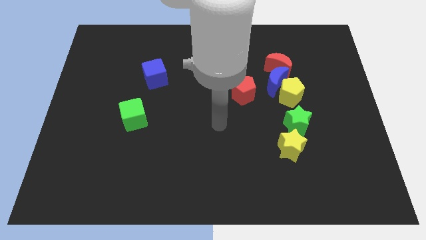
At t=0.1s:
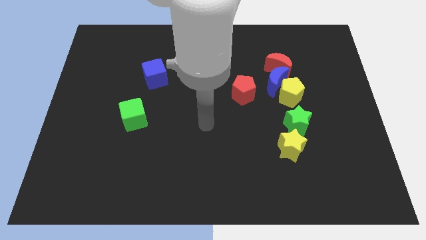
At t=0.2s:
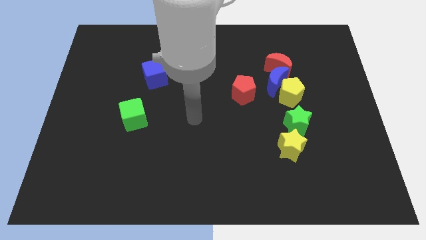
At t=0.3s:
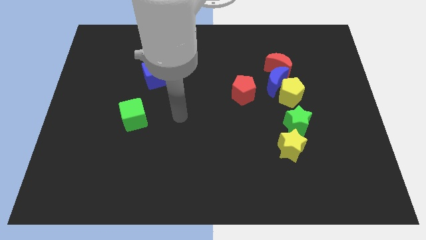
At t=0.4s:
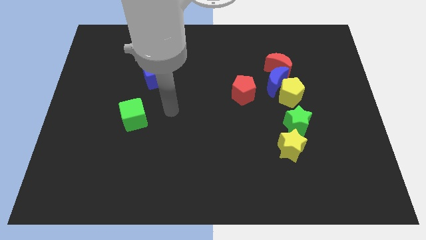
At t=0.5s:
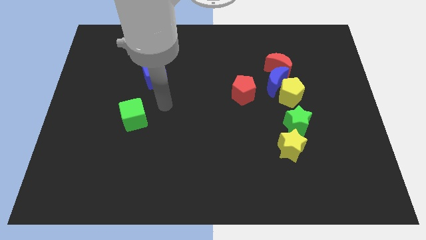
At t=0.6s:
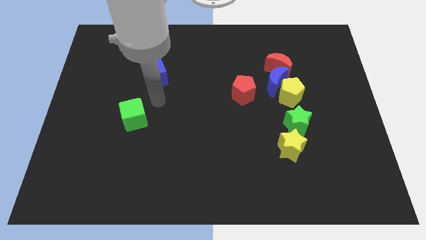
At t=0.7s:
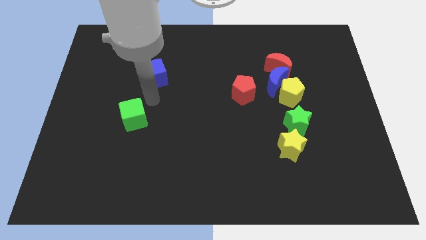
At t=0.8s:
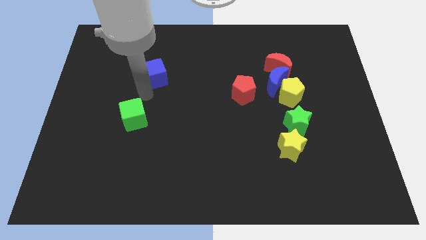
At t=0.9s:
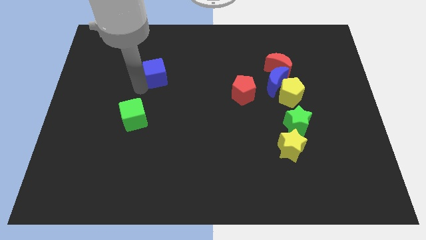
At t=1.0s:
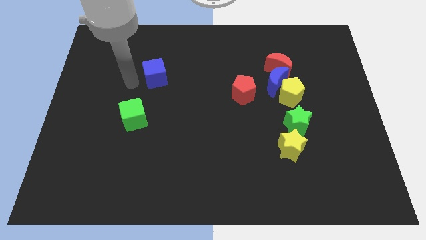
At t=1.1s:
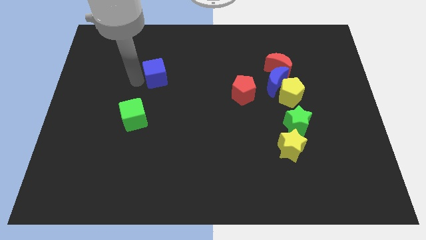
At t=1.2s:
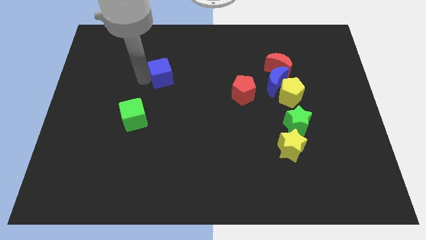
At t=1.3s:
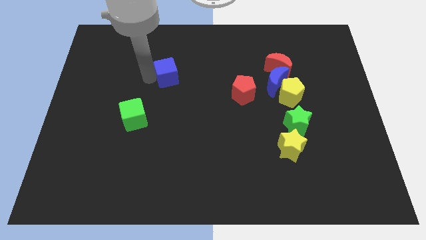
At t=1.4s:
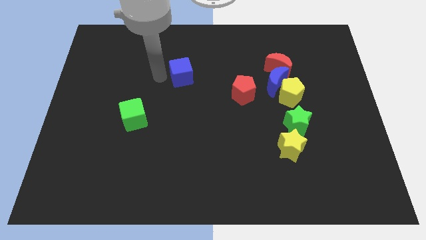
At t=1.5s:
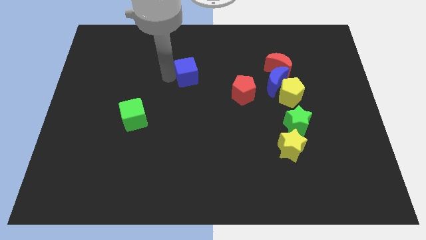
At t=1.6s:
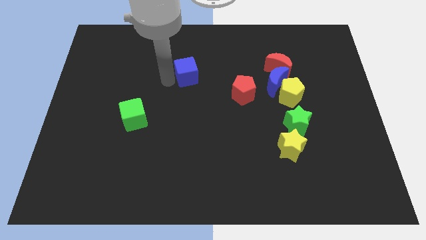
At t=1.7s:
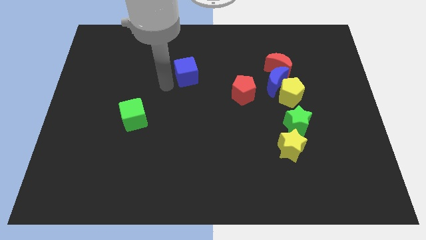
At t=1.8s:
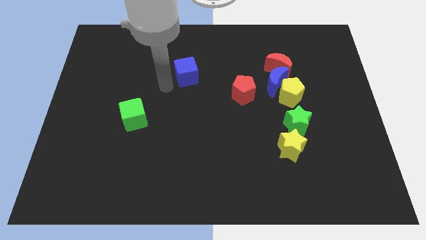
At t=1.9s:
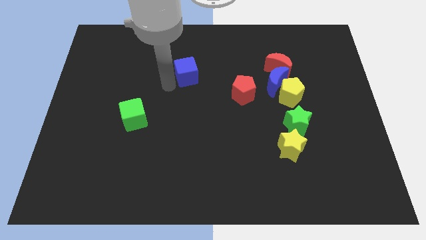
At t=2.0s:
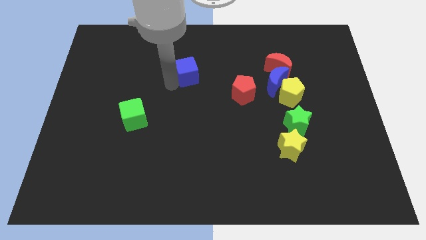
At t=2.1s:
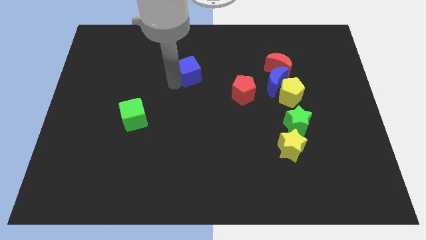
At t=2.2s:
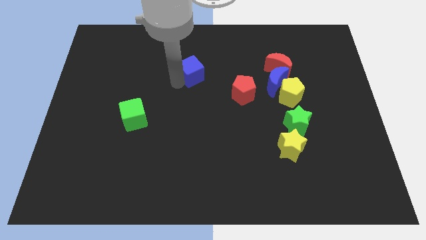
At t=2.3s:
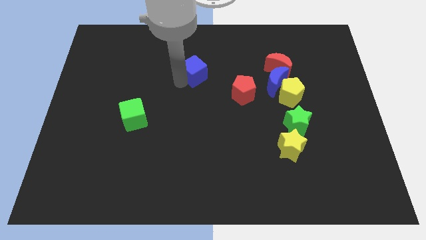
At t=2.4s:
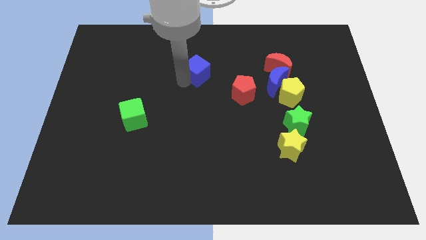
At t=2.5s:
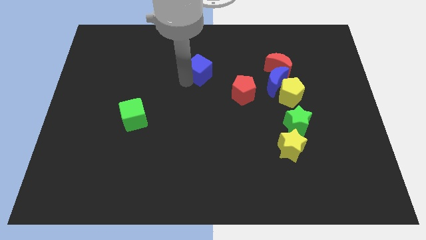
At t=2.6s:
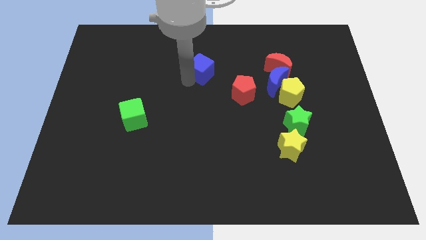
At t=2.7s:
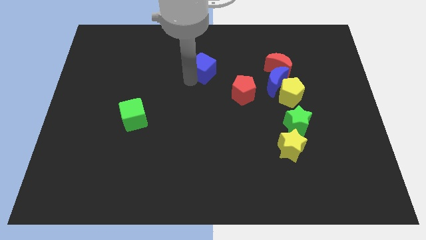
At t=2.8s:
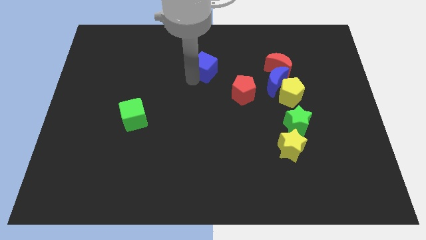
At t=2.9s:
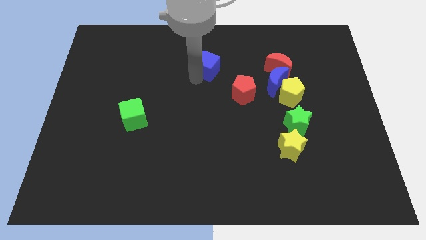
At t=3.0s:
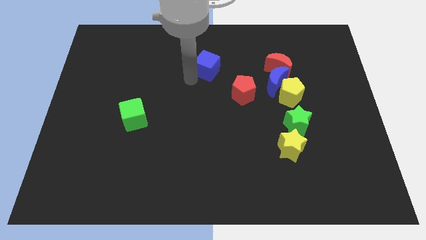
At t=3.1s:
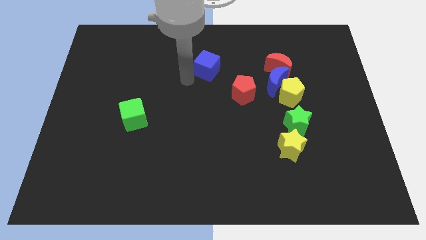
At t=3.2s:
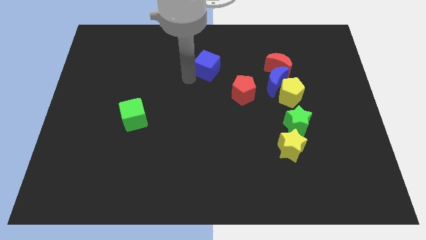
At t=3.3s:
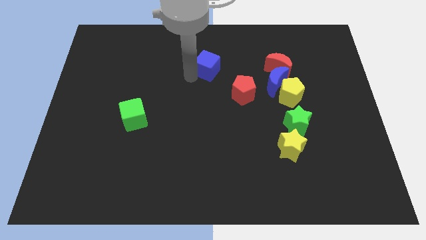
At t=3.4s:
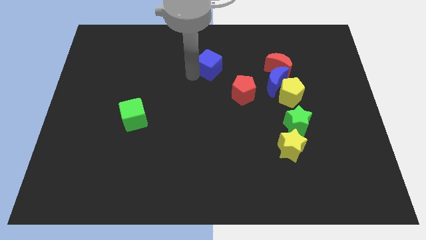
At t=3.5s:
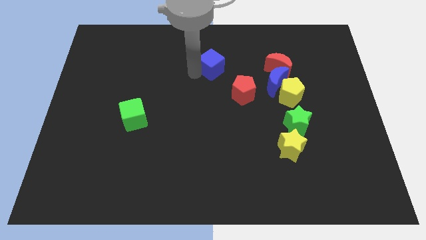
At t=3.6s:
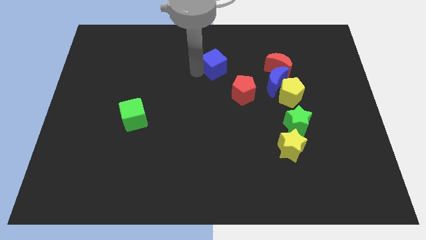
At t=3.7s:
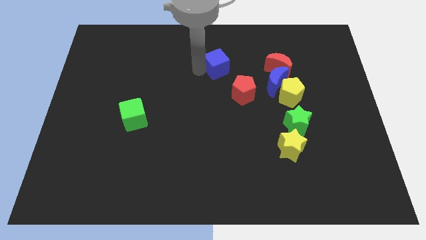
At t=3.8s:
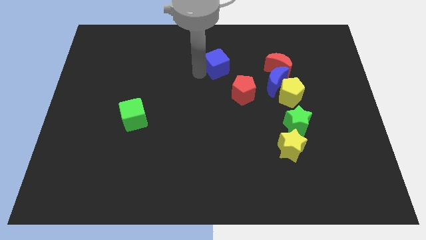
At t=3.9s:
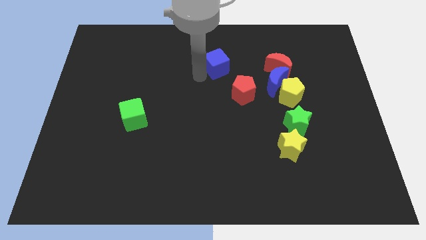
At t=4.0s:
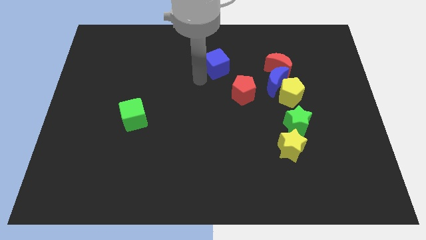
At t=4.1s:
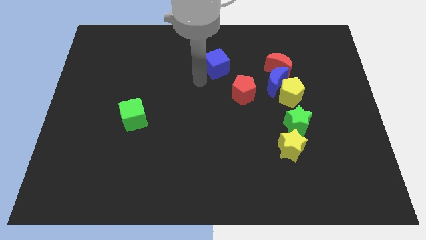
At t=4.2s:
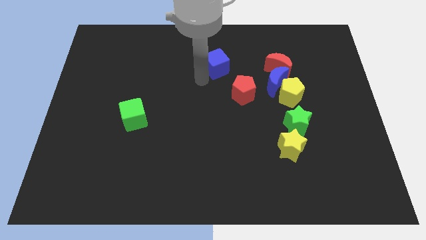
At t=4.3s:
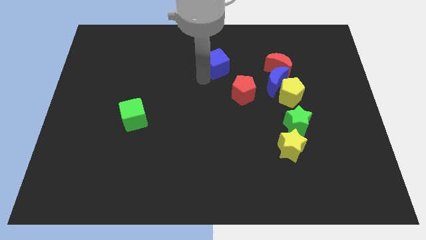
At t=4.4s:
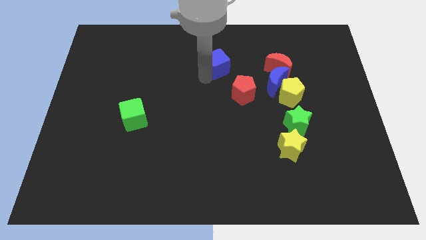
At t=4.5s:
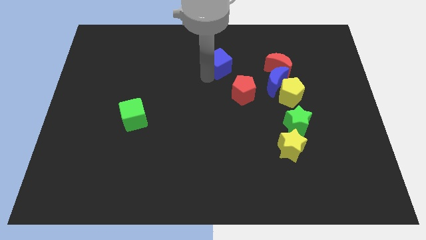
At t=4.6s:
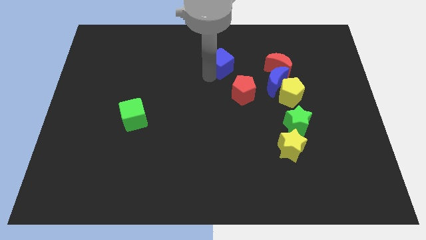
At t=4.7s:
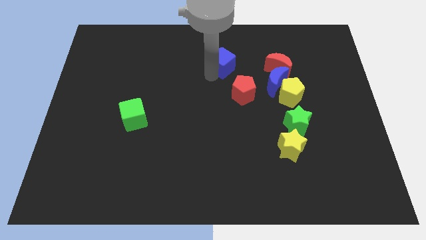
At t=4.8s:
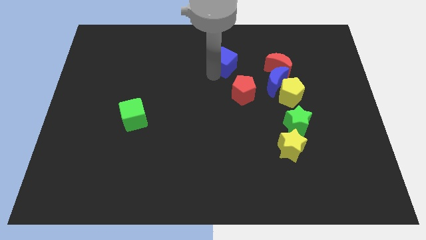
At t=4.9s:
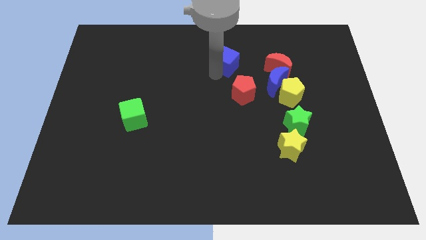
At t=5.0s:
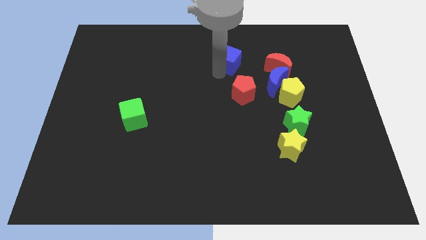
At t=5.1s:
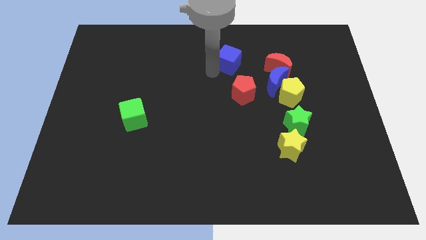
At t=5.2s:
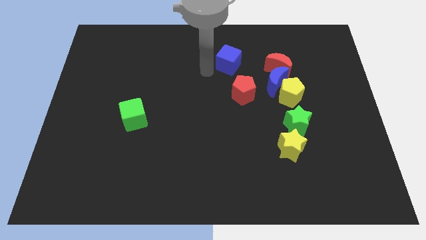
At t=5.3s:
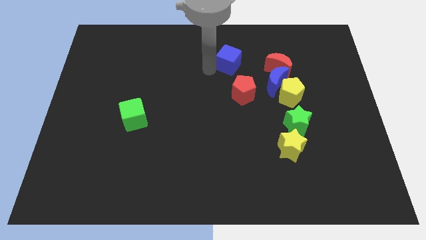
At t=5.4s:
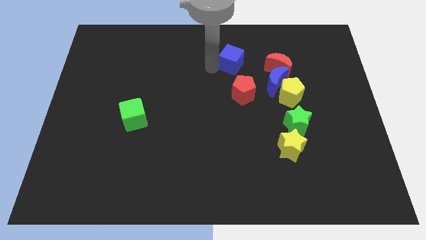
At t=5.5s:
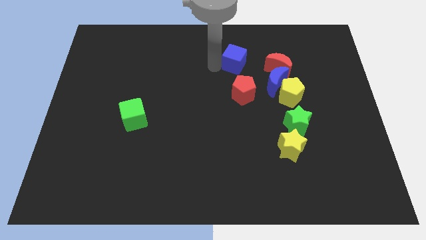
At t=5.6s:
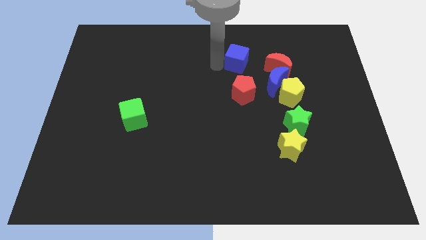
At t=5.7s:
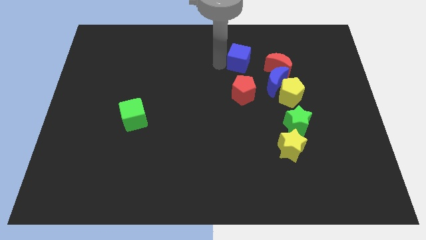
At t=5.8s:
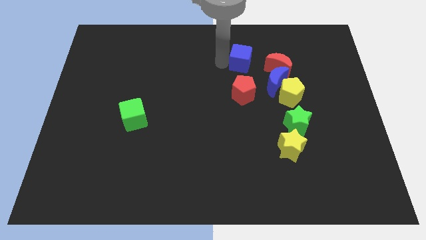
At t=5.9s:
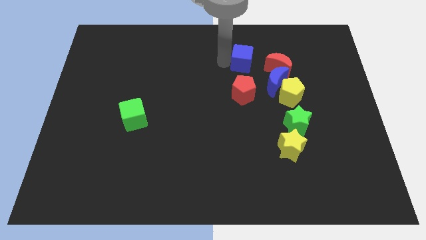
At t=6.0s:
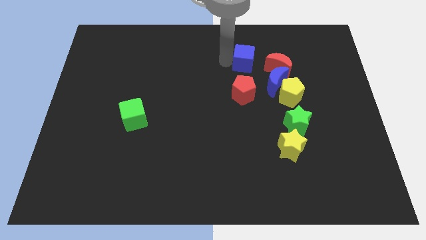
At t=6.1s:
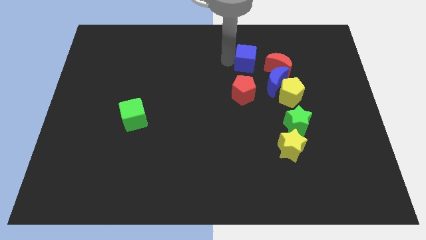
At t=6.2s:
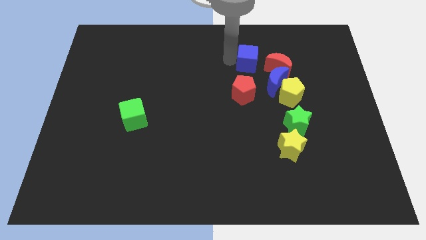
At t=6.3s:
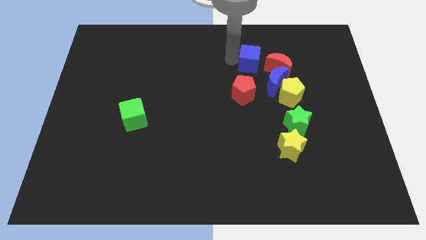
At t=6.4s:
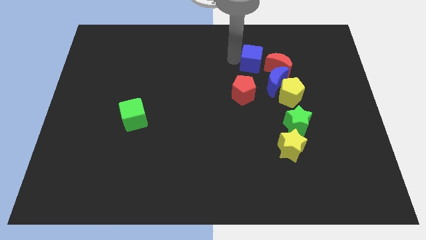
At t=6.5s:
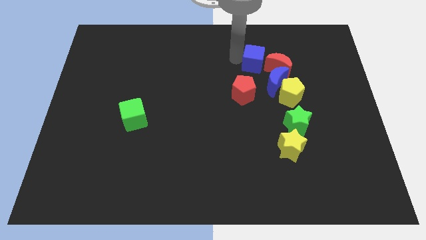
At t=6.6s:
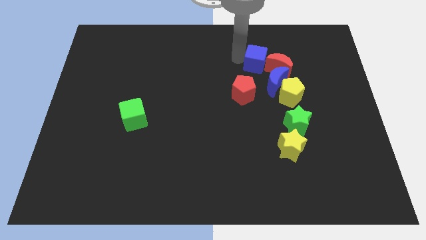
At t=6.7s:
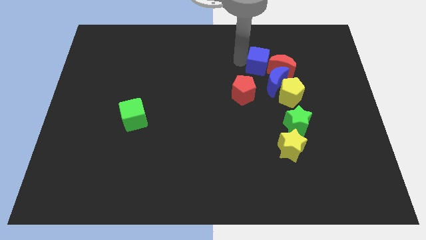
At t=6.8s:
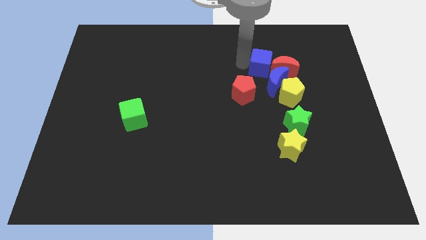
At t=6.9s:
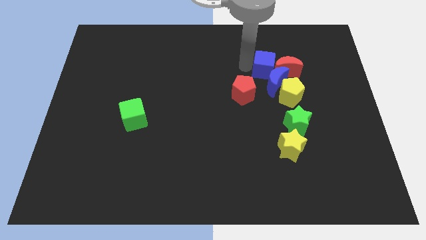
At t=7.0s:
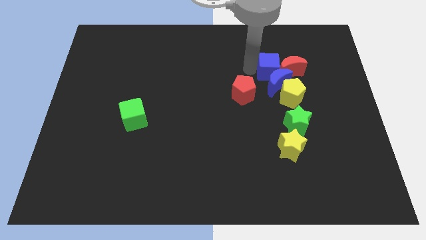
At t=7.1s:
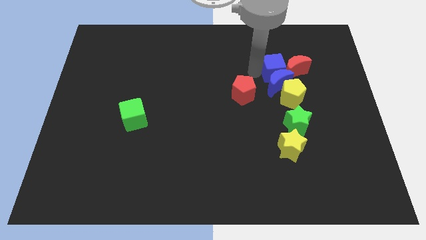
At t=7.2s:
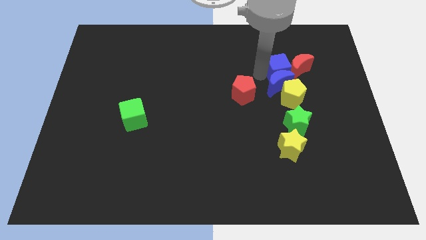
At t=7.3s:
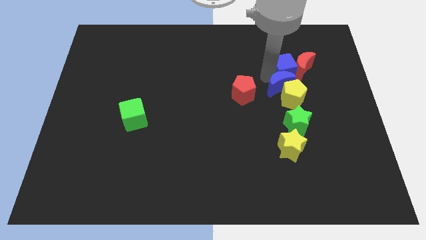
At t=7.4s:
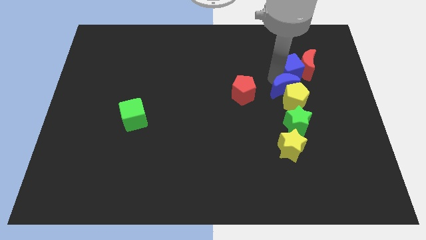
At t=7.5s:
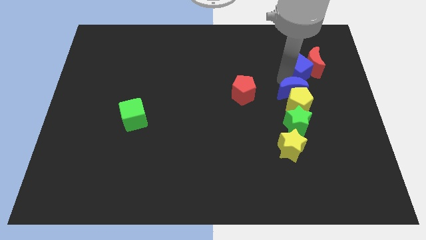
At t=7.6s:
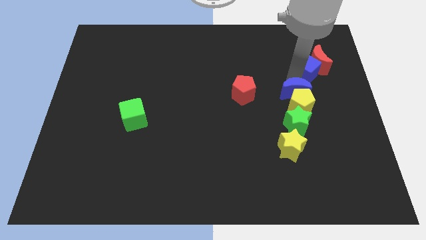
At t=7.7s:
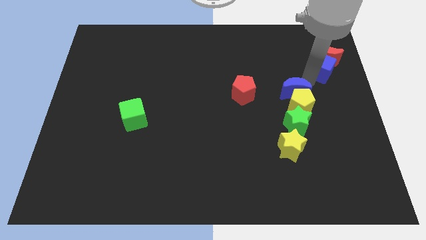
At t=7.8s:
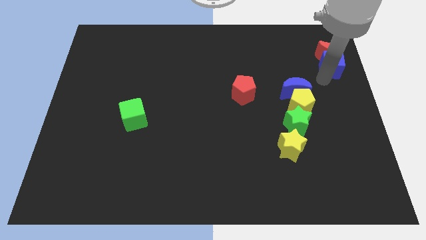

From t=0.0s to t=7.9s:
put the blue cube to the center right

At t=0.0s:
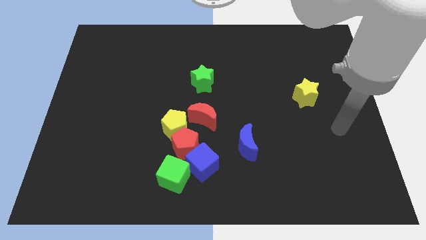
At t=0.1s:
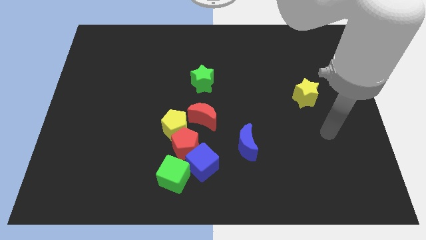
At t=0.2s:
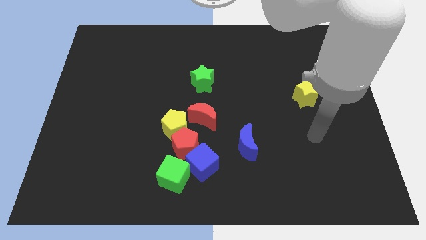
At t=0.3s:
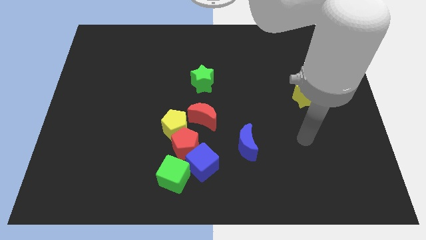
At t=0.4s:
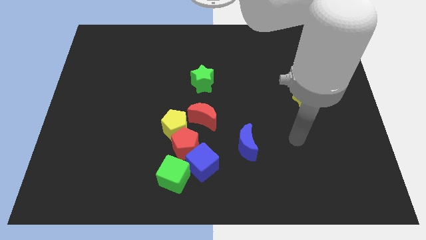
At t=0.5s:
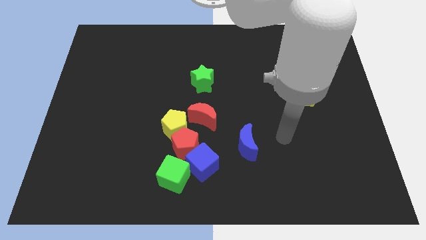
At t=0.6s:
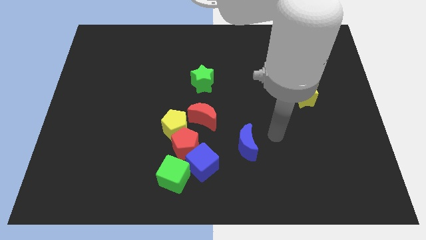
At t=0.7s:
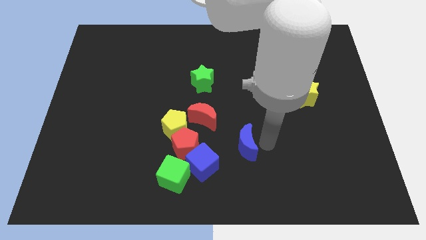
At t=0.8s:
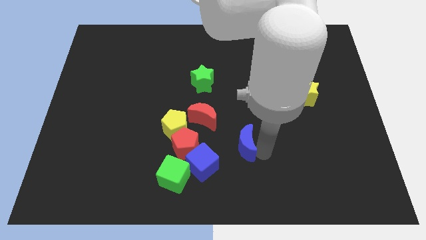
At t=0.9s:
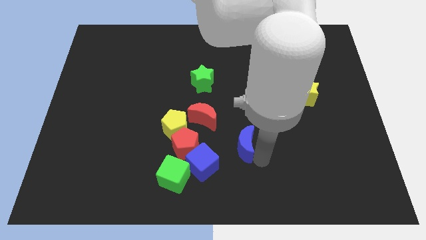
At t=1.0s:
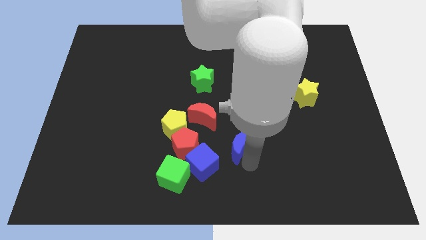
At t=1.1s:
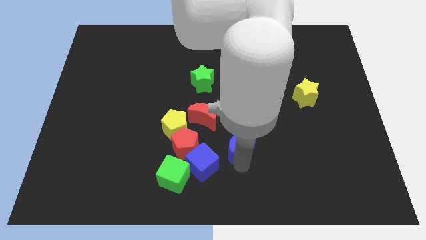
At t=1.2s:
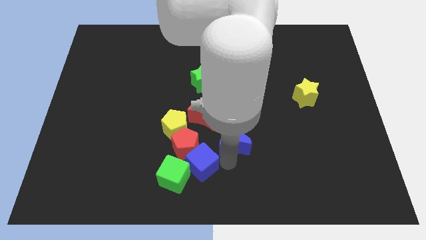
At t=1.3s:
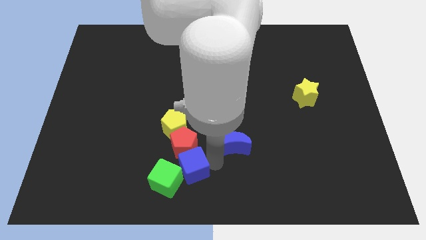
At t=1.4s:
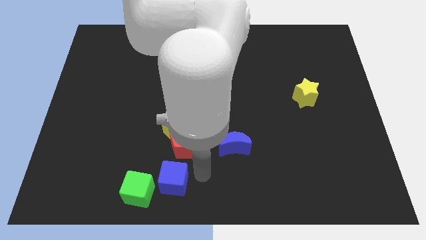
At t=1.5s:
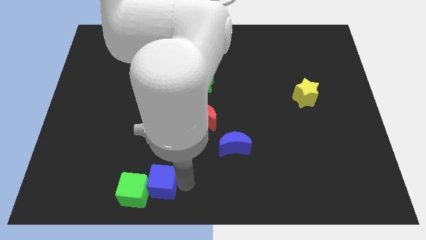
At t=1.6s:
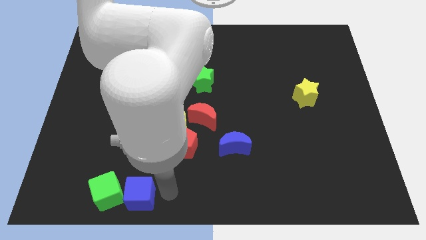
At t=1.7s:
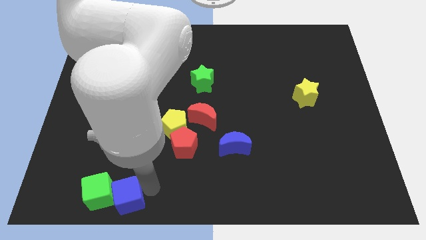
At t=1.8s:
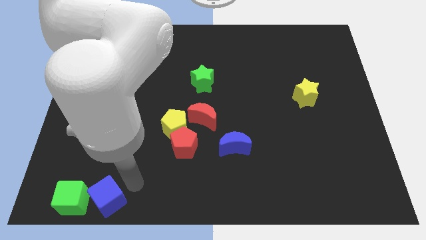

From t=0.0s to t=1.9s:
slide the green cube to the bottom left of the board
